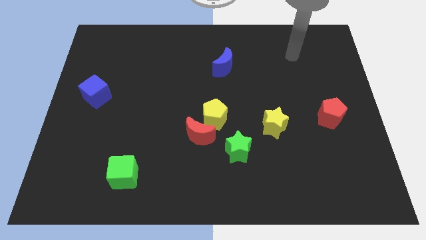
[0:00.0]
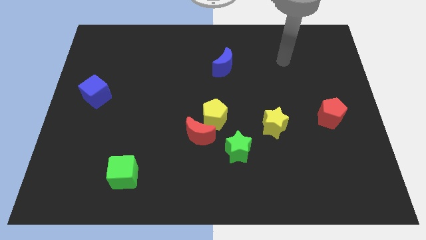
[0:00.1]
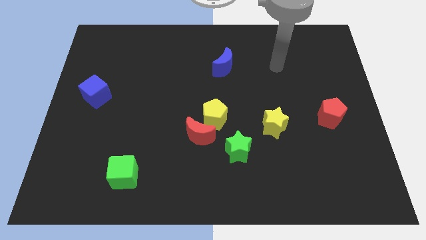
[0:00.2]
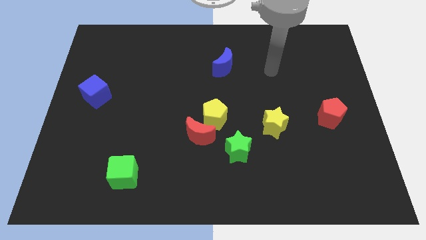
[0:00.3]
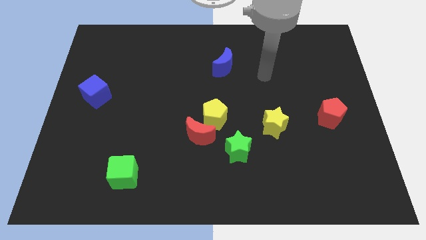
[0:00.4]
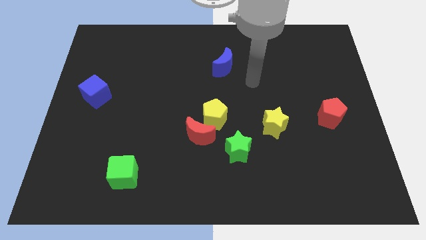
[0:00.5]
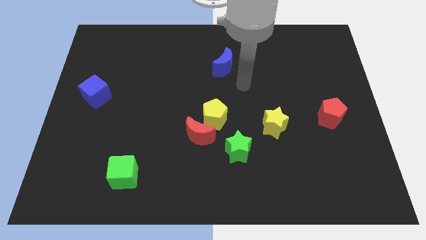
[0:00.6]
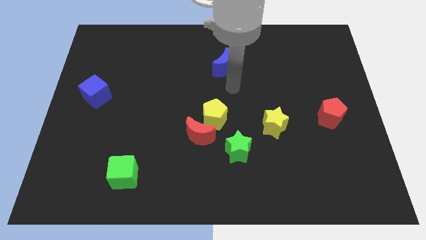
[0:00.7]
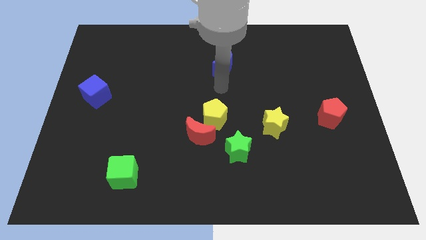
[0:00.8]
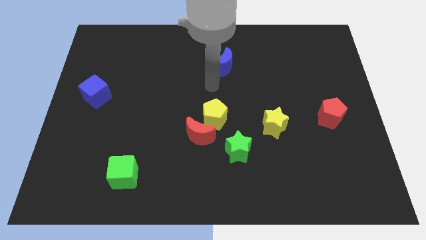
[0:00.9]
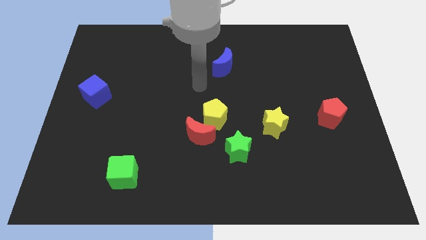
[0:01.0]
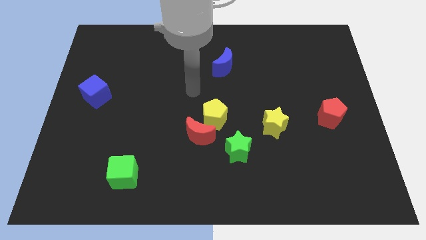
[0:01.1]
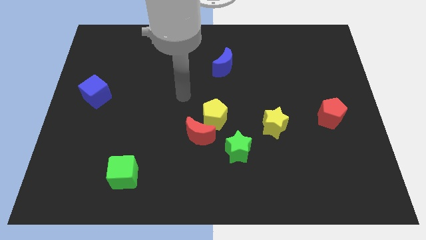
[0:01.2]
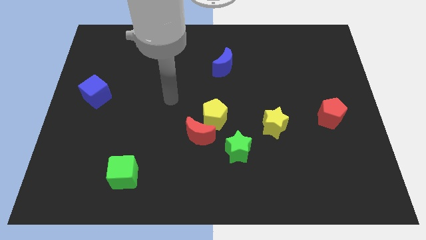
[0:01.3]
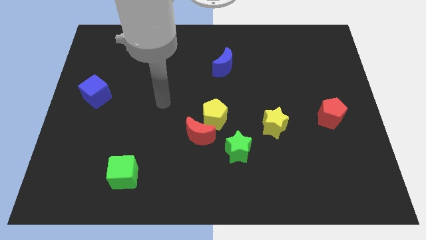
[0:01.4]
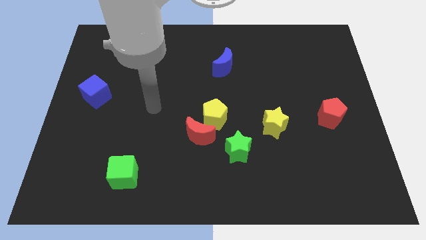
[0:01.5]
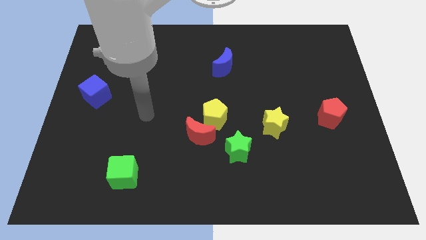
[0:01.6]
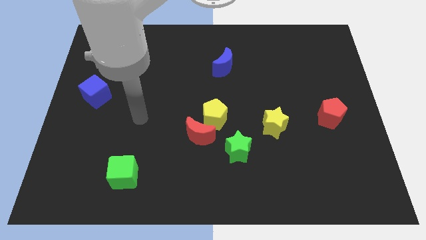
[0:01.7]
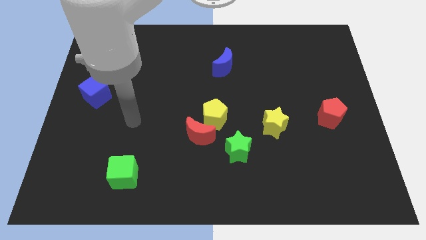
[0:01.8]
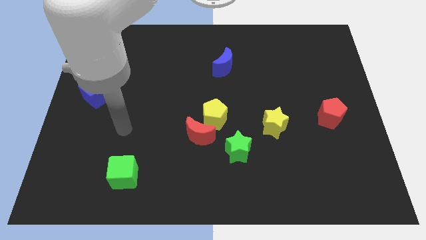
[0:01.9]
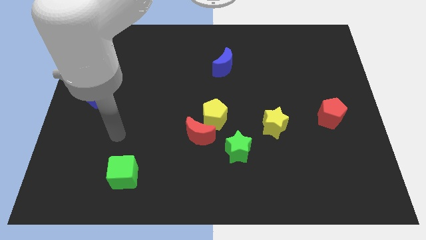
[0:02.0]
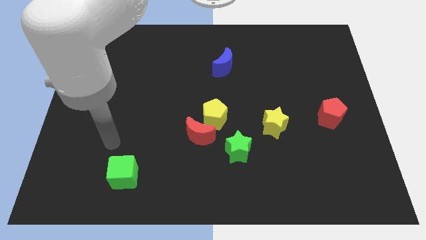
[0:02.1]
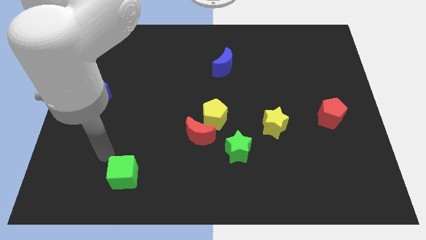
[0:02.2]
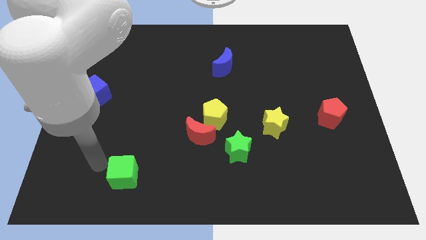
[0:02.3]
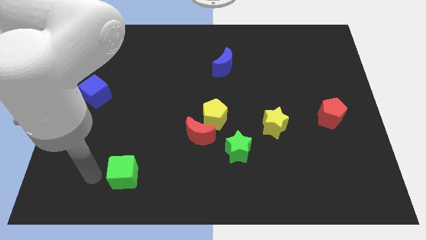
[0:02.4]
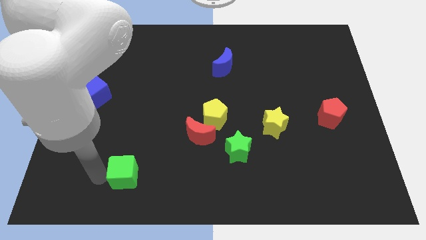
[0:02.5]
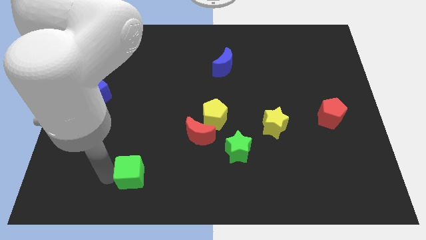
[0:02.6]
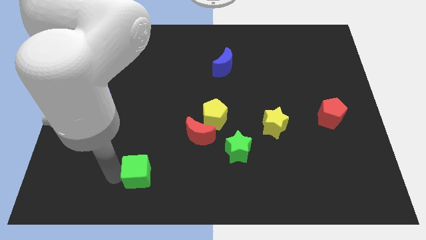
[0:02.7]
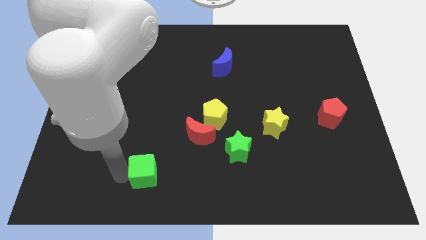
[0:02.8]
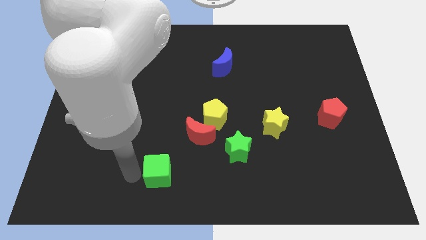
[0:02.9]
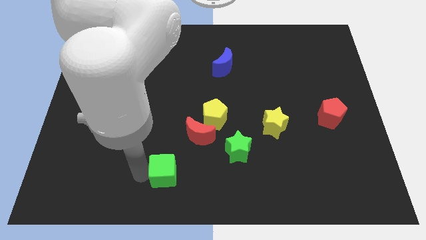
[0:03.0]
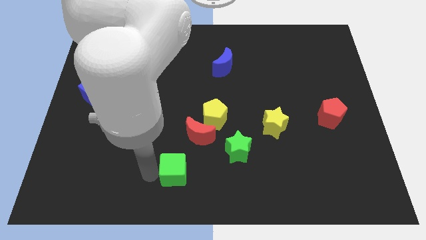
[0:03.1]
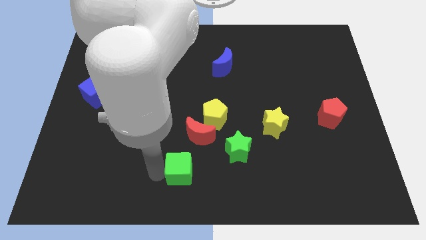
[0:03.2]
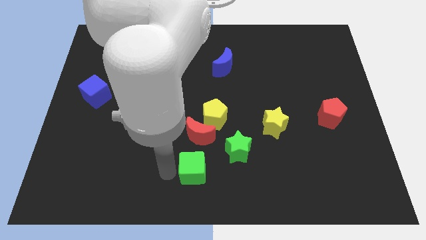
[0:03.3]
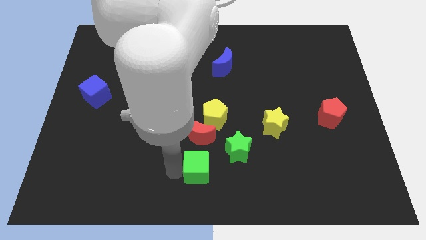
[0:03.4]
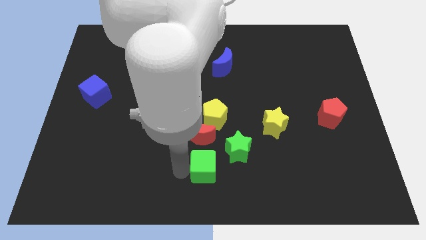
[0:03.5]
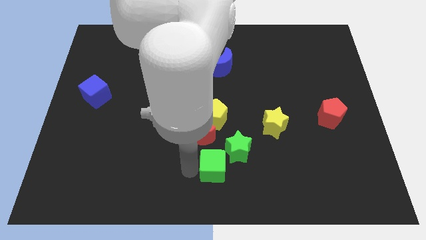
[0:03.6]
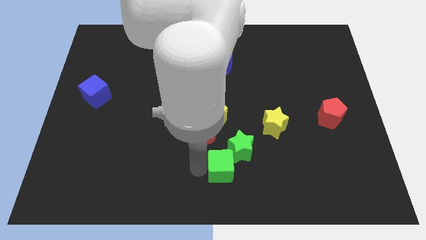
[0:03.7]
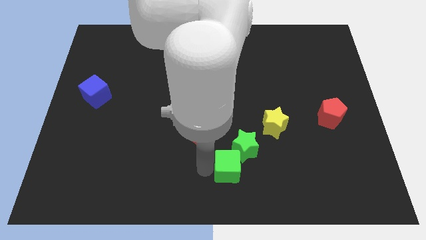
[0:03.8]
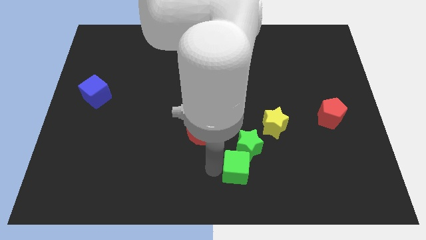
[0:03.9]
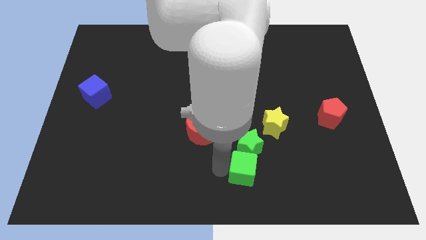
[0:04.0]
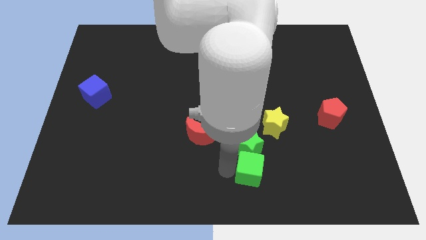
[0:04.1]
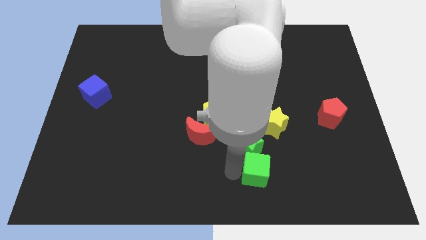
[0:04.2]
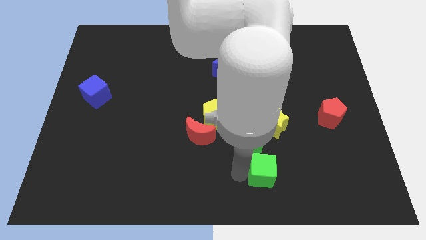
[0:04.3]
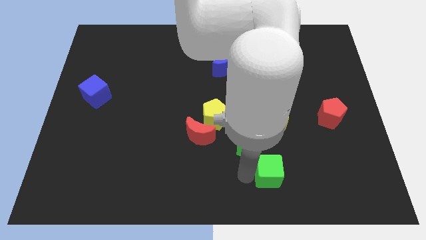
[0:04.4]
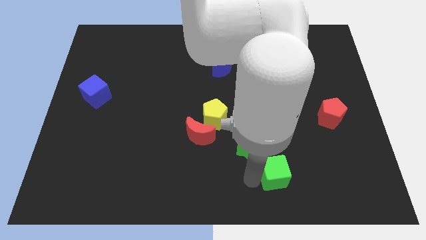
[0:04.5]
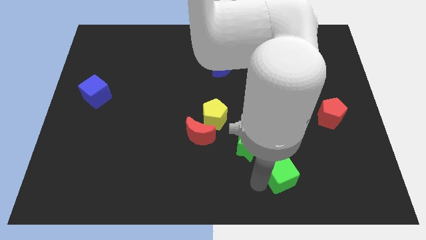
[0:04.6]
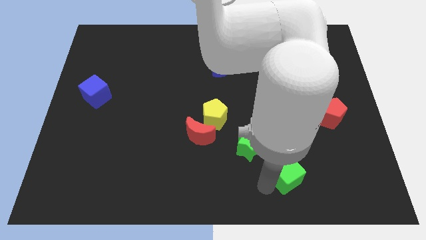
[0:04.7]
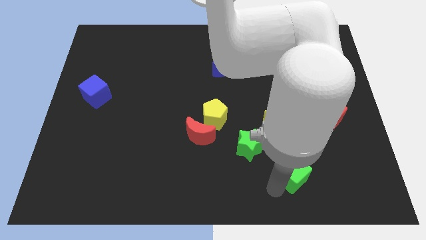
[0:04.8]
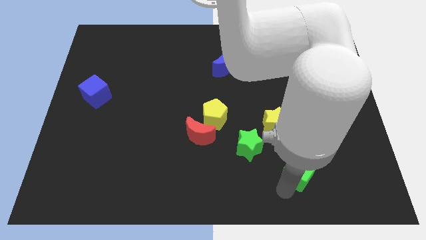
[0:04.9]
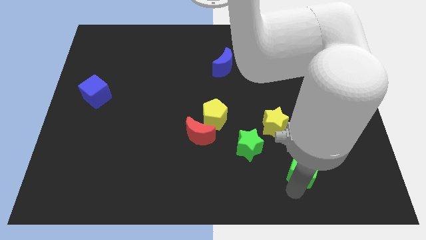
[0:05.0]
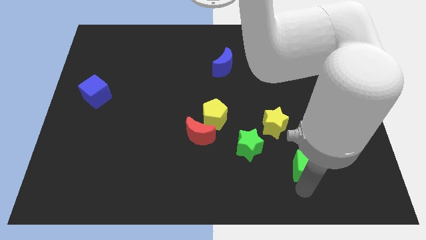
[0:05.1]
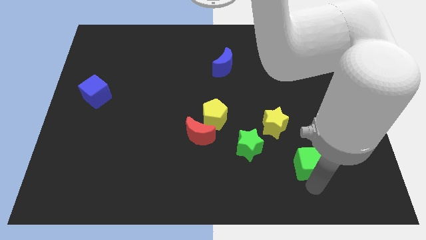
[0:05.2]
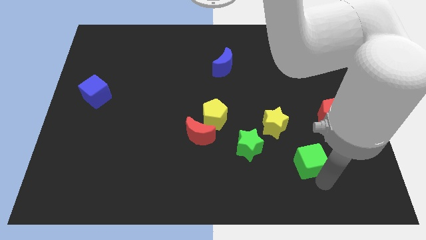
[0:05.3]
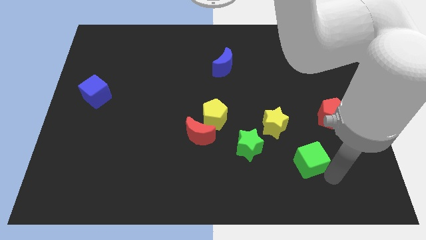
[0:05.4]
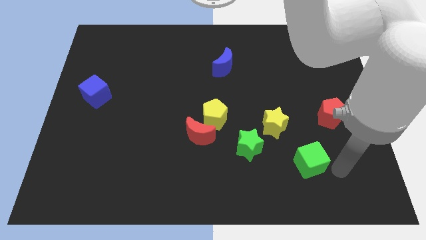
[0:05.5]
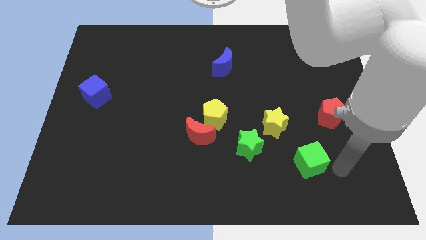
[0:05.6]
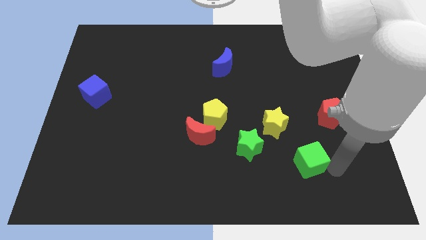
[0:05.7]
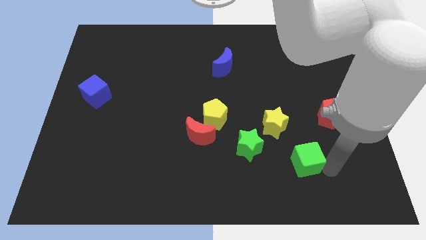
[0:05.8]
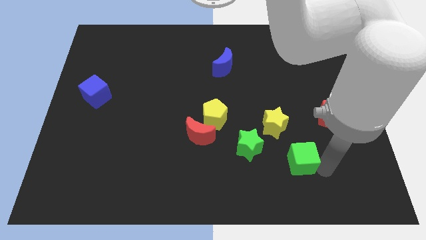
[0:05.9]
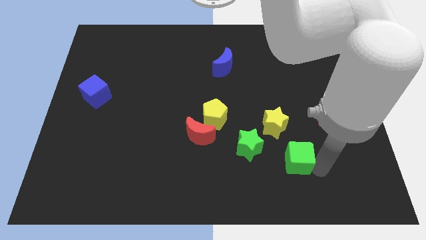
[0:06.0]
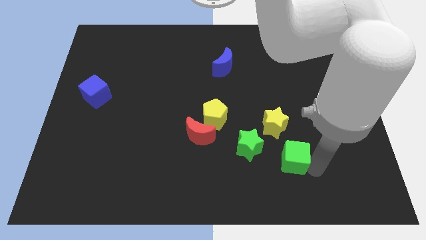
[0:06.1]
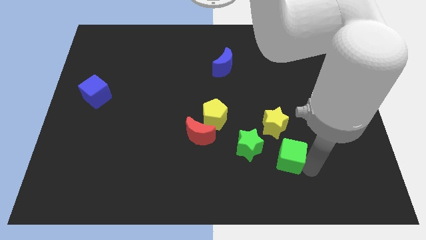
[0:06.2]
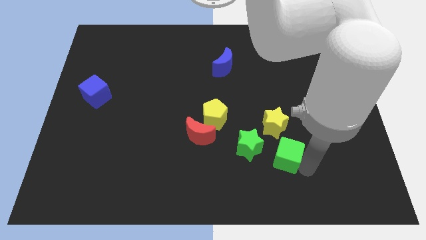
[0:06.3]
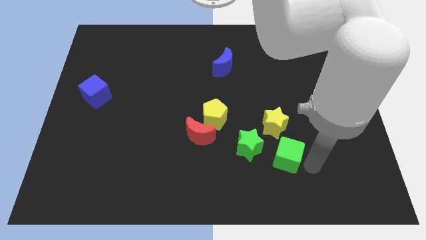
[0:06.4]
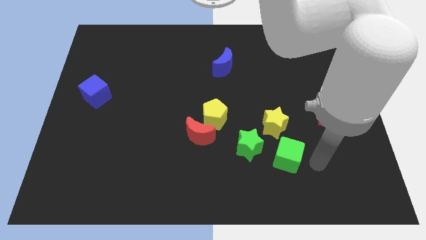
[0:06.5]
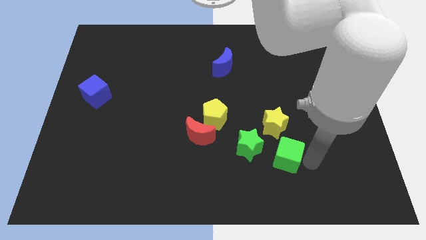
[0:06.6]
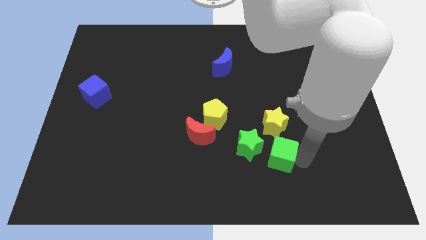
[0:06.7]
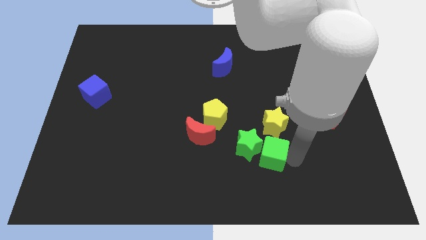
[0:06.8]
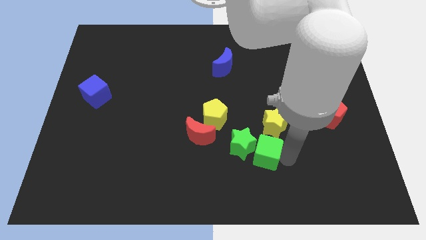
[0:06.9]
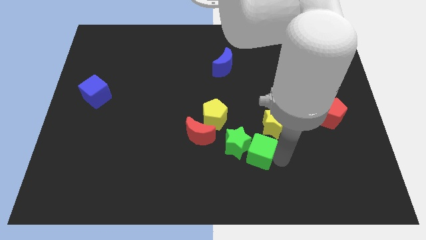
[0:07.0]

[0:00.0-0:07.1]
move the green cube to the right of the red moon
